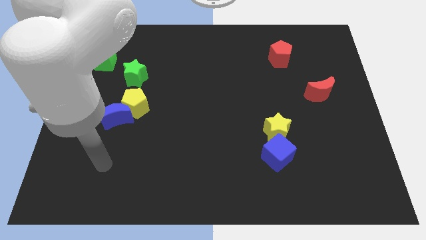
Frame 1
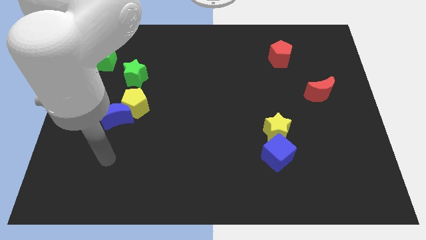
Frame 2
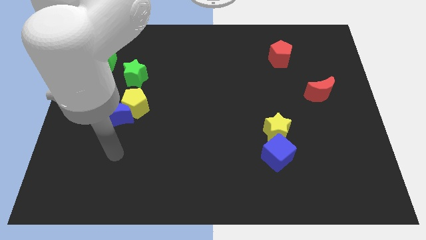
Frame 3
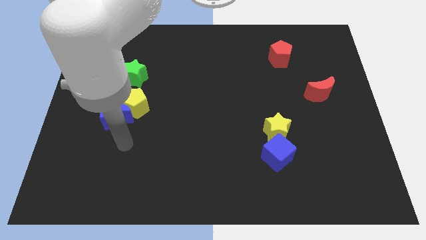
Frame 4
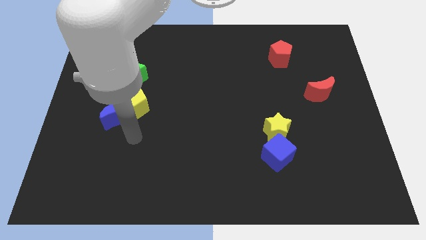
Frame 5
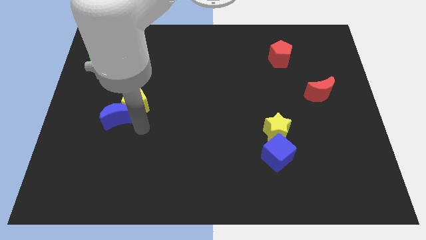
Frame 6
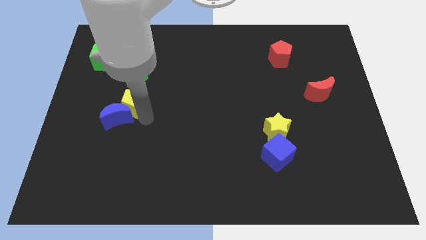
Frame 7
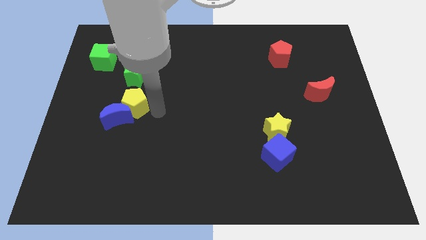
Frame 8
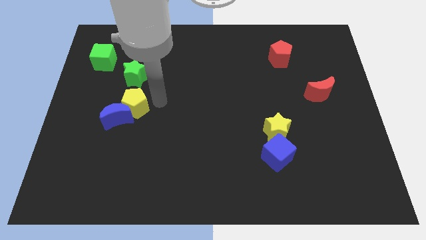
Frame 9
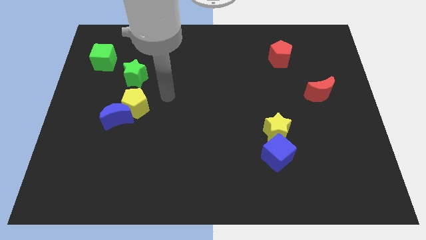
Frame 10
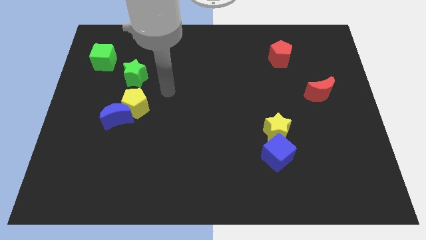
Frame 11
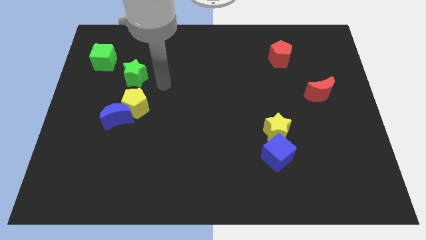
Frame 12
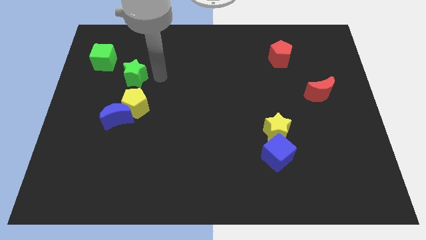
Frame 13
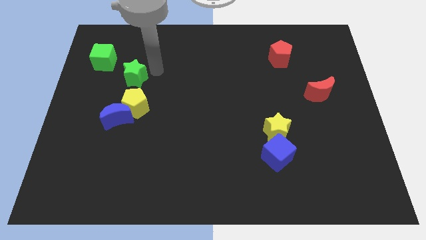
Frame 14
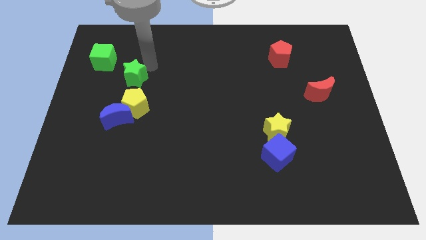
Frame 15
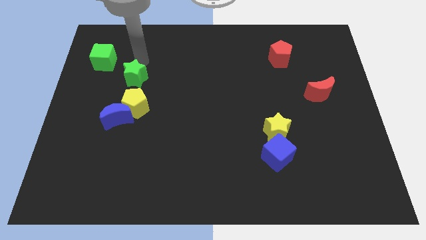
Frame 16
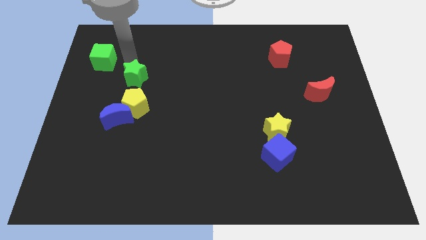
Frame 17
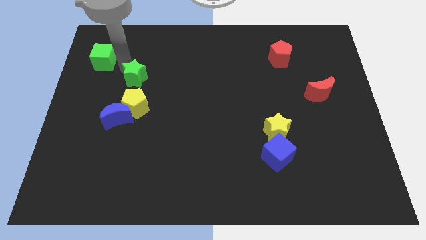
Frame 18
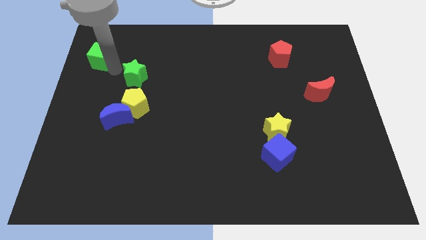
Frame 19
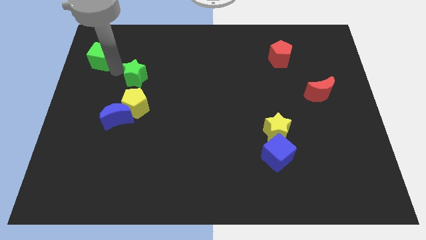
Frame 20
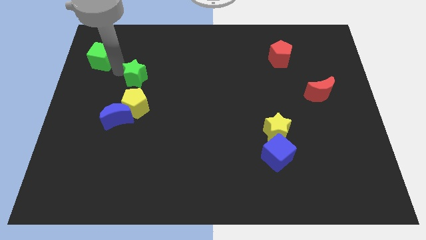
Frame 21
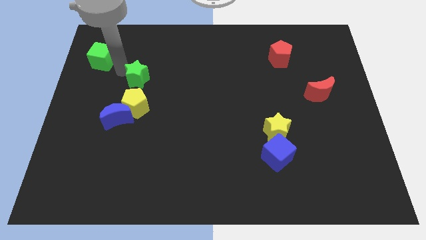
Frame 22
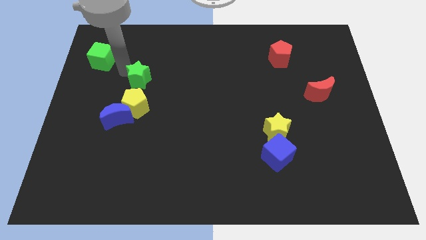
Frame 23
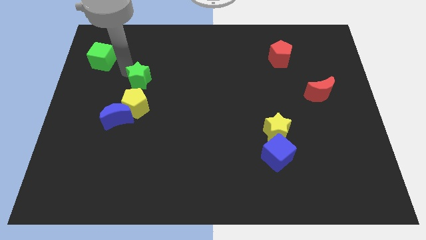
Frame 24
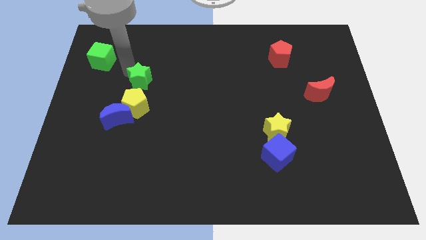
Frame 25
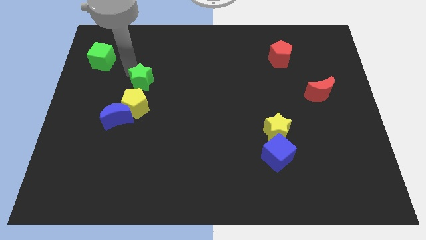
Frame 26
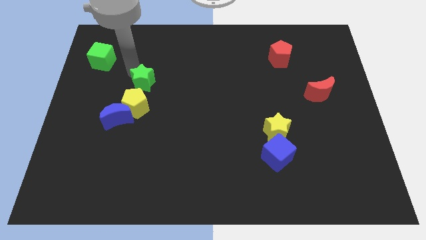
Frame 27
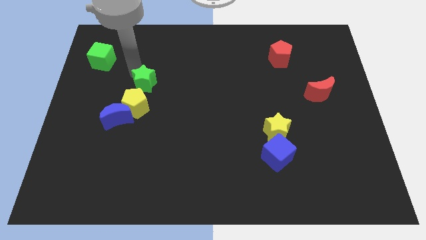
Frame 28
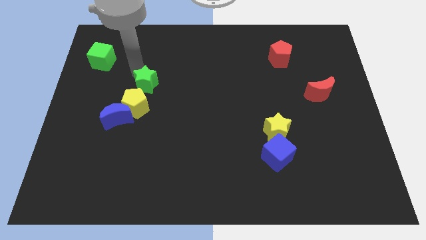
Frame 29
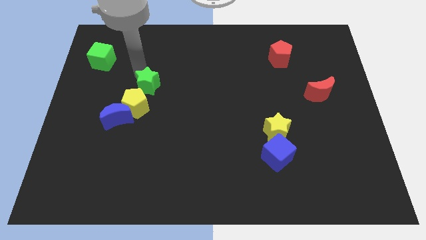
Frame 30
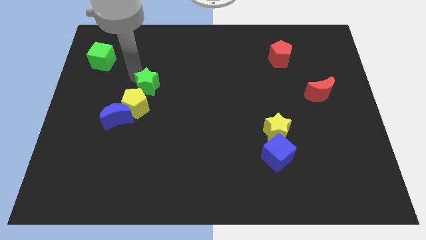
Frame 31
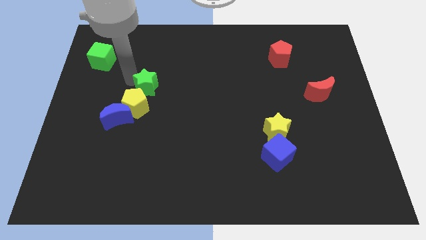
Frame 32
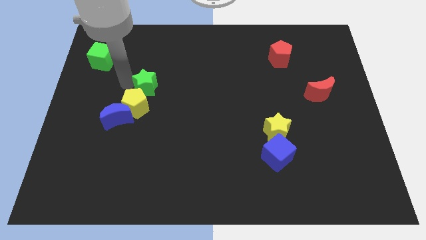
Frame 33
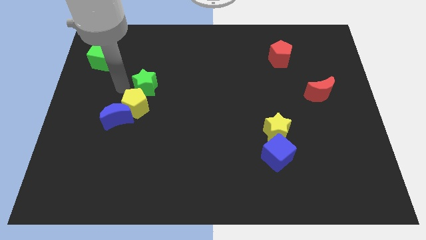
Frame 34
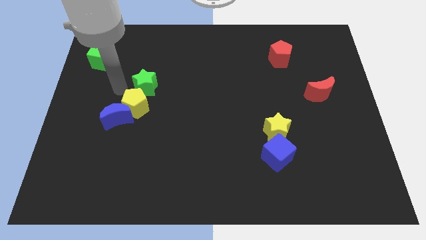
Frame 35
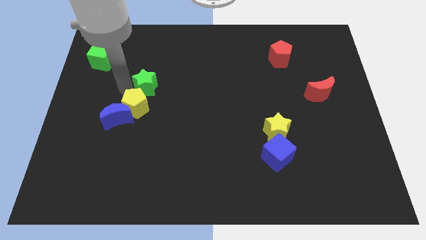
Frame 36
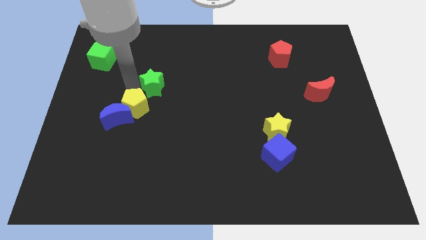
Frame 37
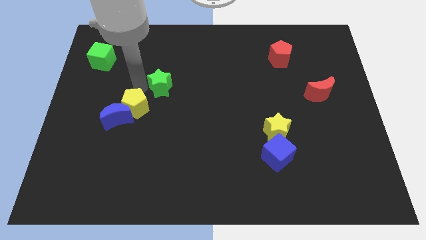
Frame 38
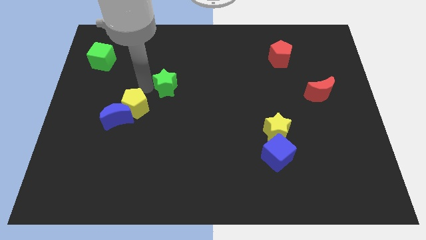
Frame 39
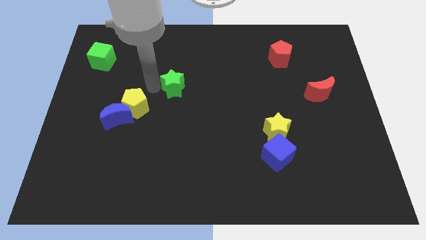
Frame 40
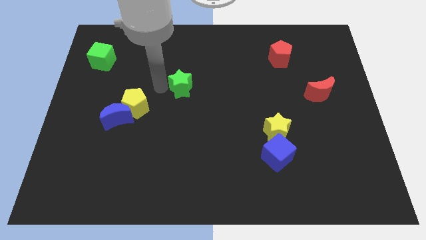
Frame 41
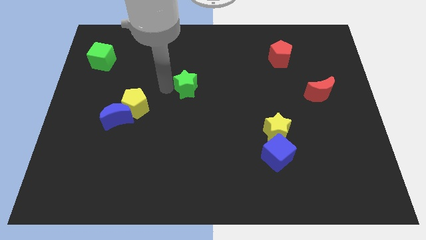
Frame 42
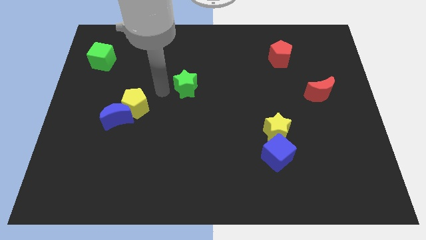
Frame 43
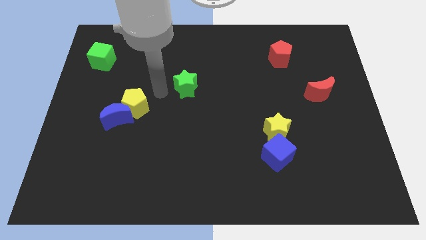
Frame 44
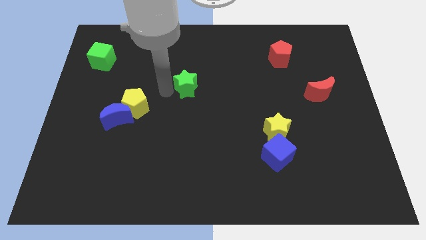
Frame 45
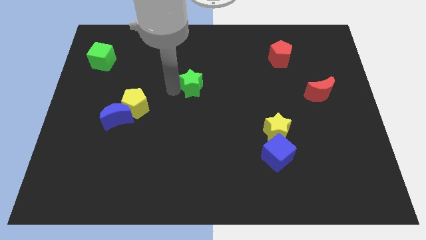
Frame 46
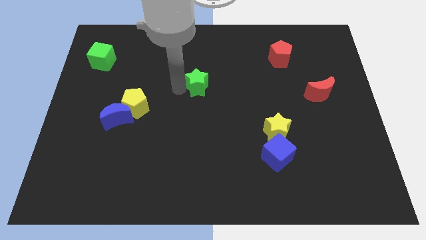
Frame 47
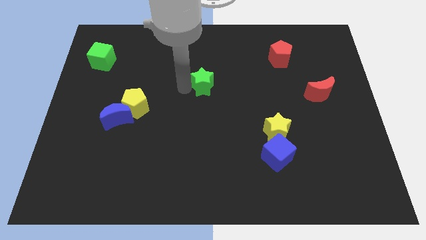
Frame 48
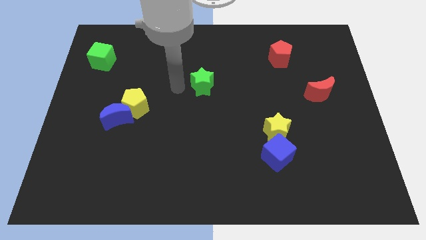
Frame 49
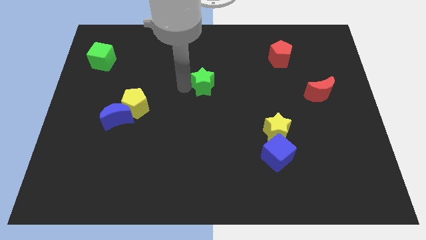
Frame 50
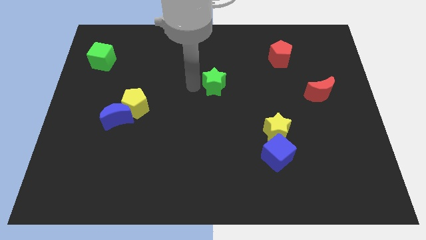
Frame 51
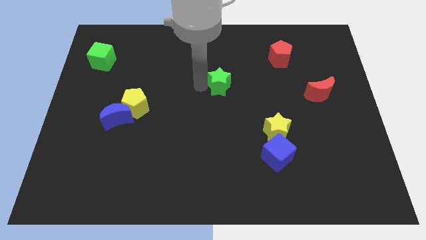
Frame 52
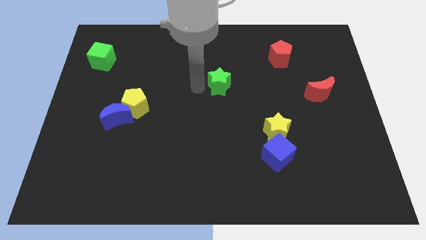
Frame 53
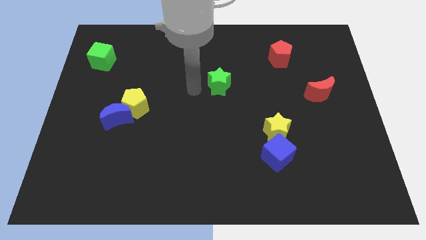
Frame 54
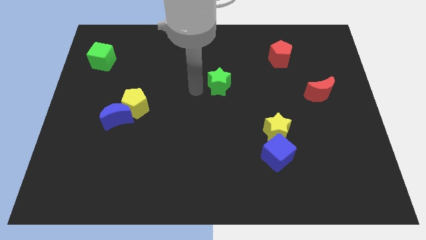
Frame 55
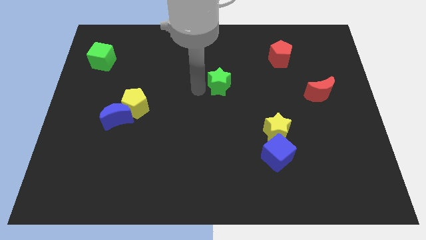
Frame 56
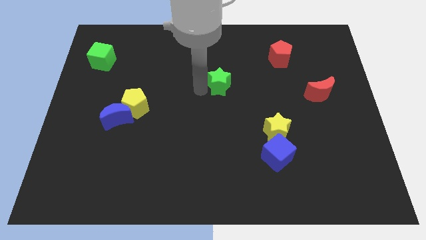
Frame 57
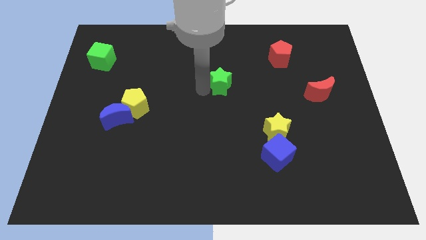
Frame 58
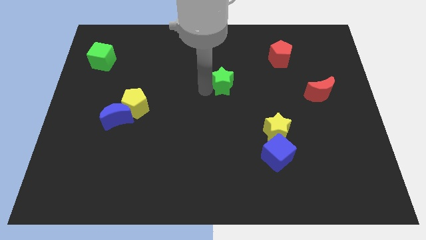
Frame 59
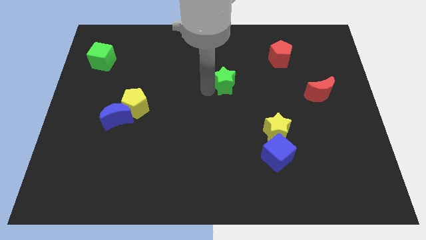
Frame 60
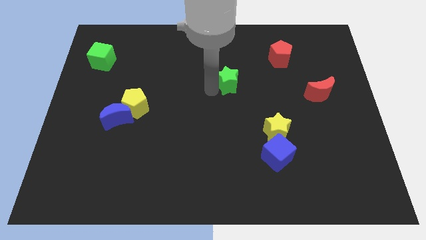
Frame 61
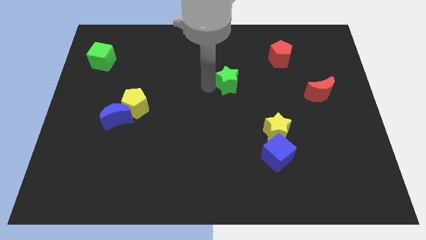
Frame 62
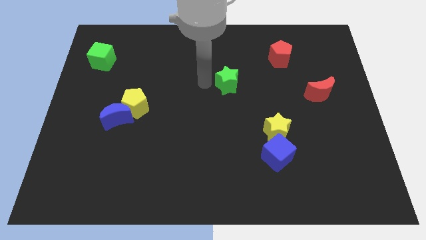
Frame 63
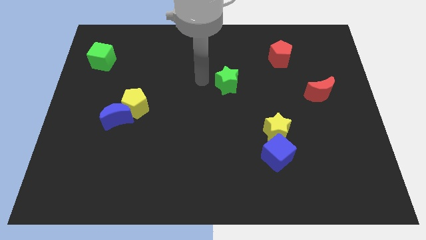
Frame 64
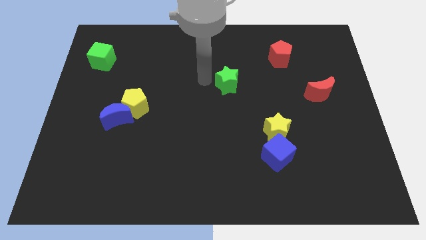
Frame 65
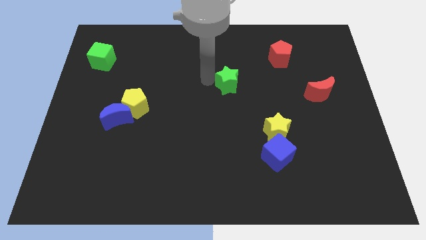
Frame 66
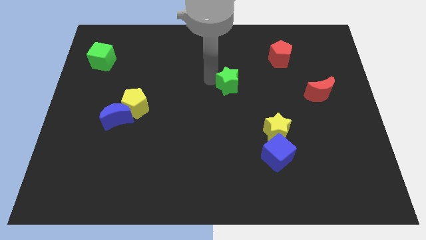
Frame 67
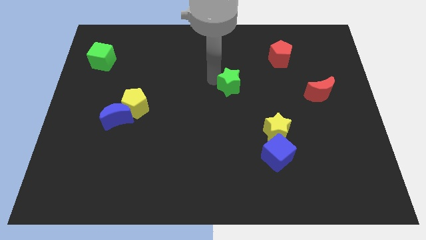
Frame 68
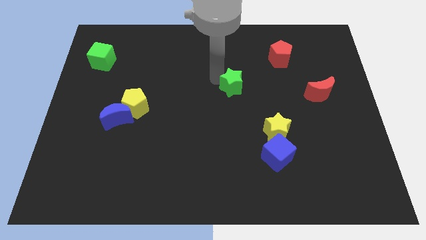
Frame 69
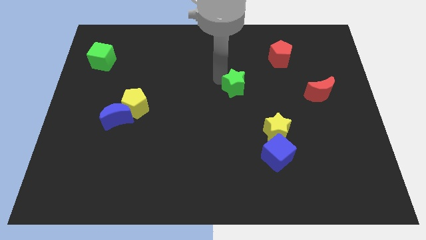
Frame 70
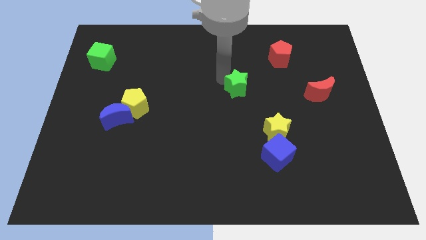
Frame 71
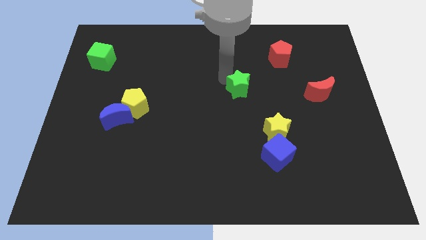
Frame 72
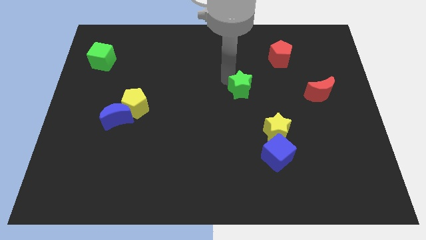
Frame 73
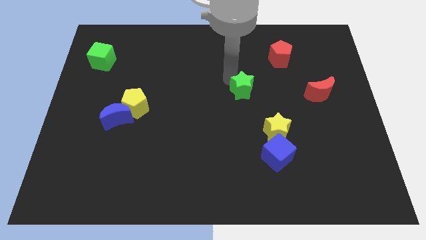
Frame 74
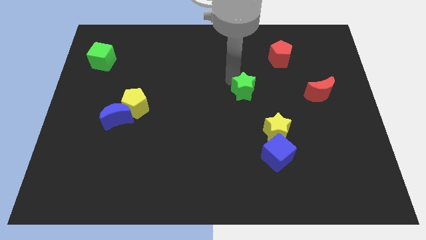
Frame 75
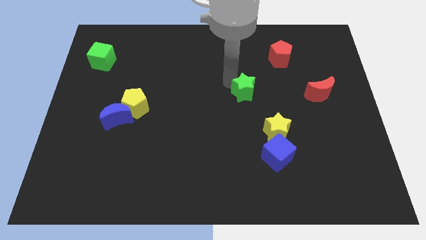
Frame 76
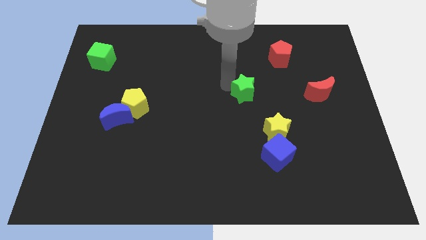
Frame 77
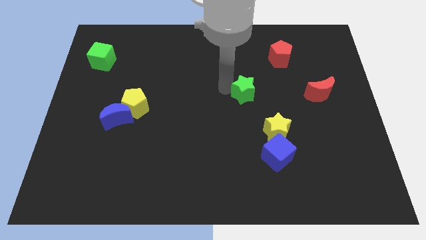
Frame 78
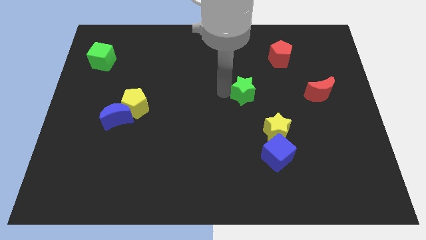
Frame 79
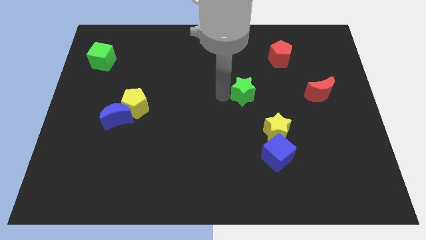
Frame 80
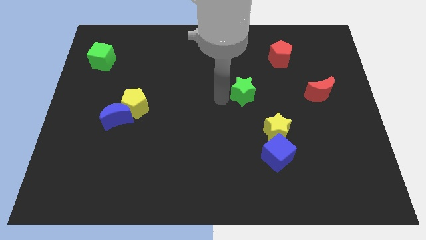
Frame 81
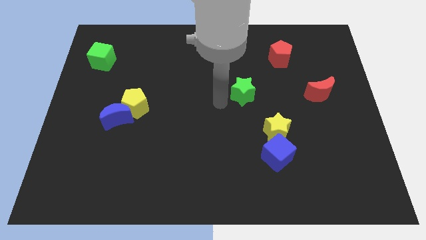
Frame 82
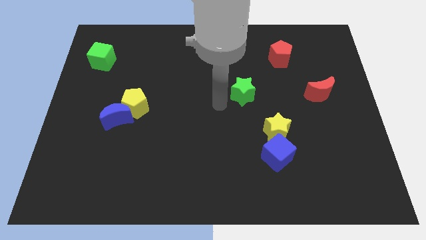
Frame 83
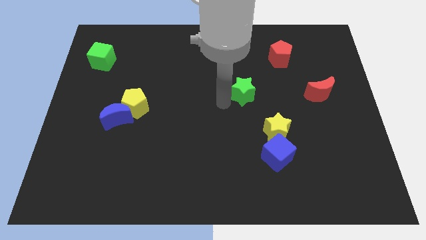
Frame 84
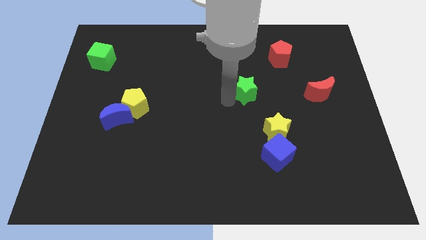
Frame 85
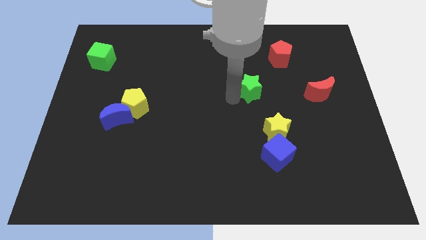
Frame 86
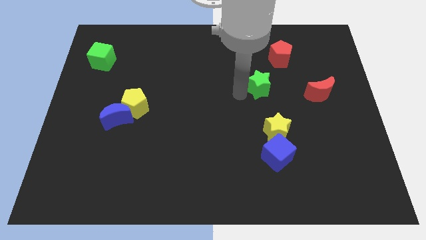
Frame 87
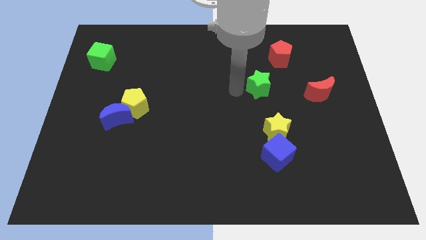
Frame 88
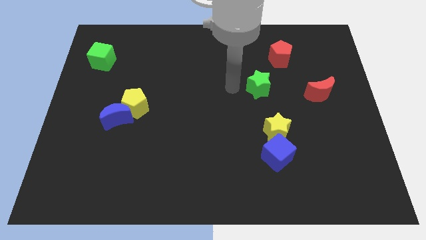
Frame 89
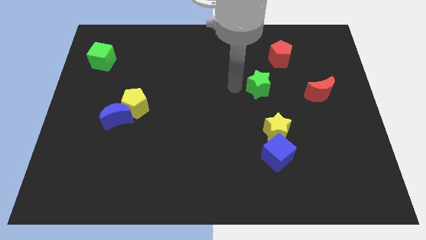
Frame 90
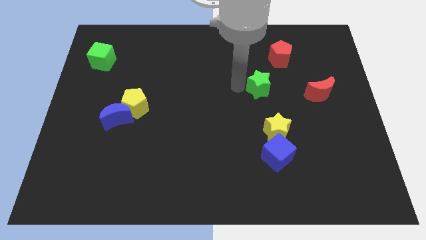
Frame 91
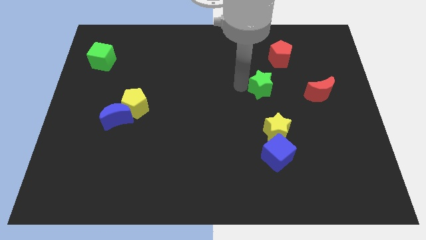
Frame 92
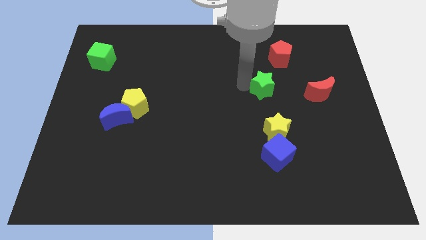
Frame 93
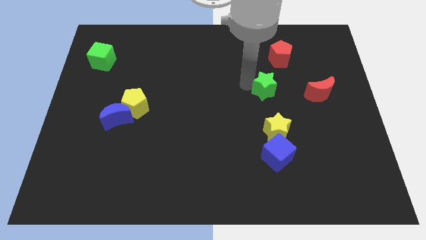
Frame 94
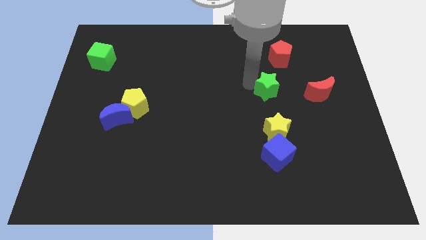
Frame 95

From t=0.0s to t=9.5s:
slide the green star below the red pentagon
